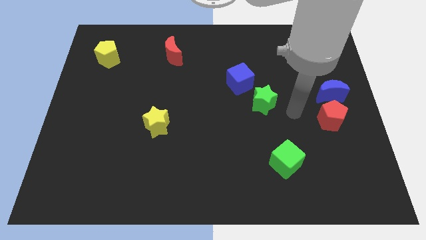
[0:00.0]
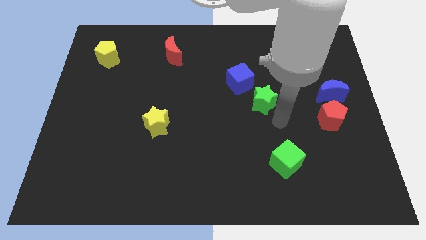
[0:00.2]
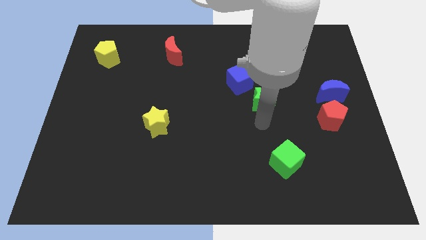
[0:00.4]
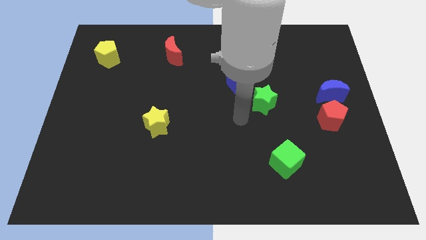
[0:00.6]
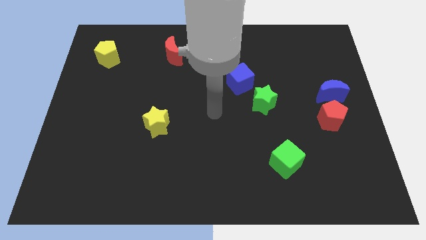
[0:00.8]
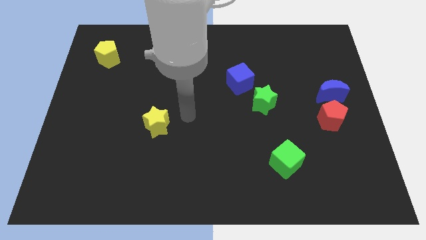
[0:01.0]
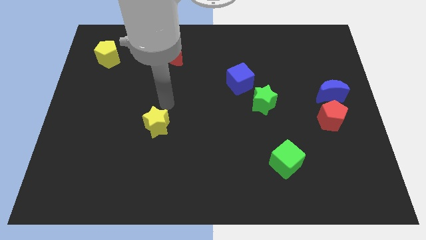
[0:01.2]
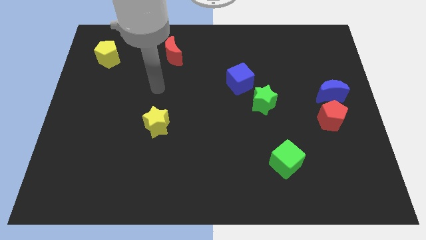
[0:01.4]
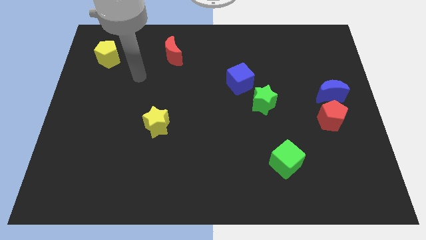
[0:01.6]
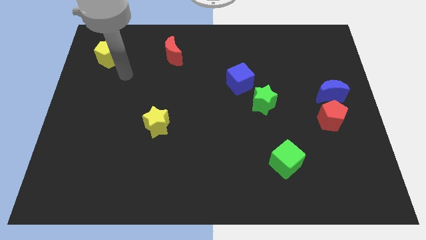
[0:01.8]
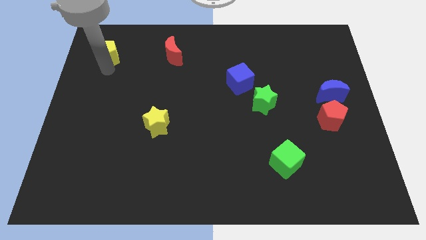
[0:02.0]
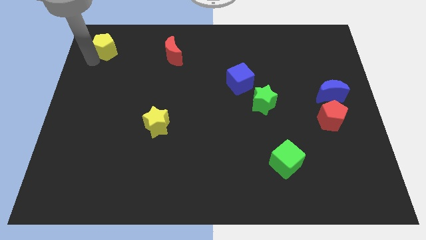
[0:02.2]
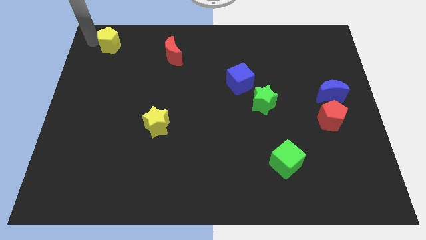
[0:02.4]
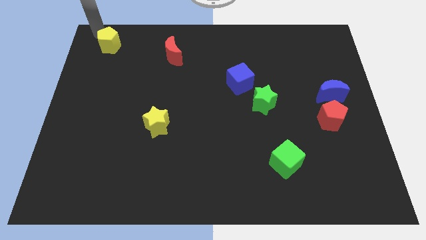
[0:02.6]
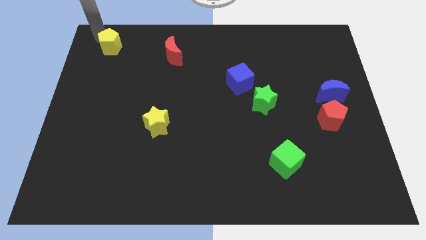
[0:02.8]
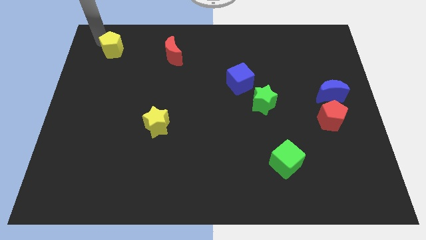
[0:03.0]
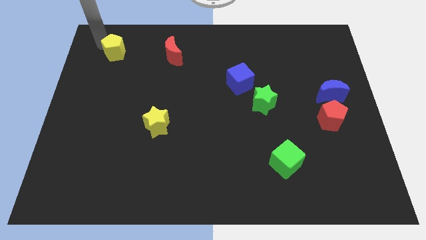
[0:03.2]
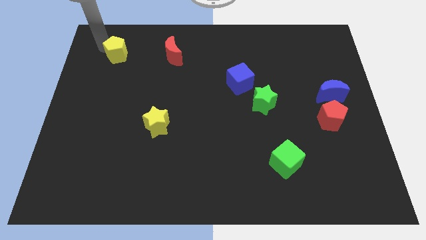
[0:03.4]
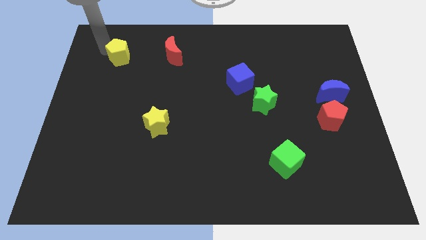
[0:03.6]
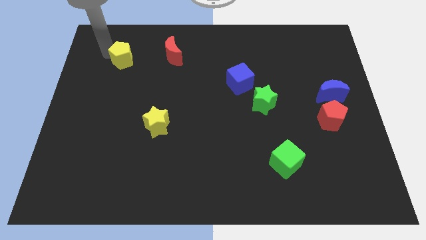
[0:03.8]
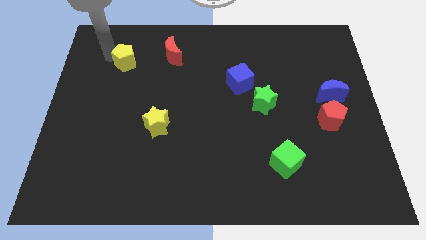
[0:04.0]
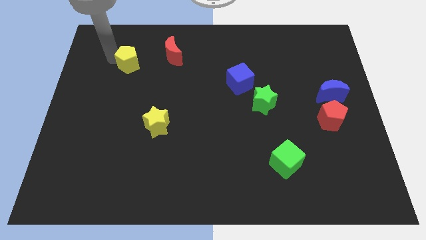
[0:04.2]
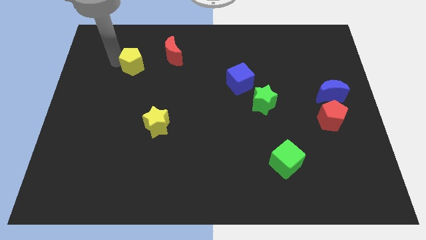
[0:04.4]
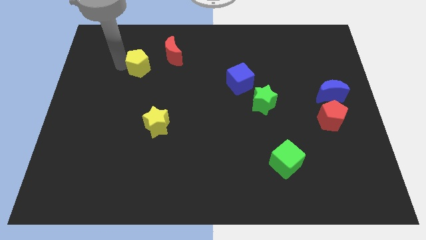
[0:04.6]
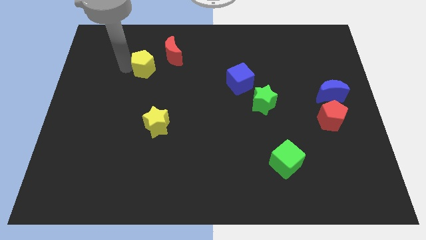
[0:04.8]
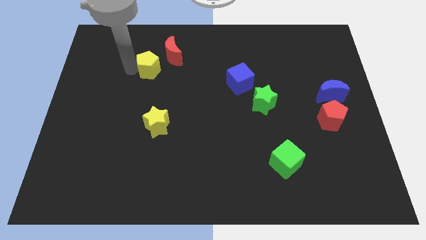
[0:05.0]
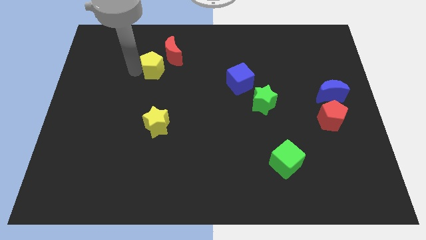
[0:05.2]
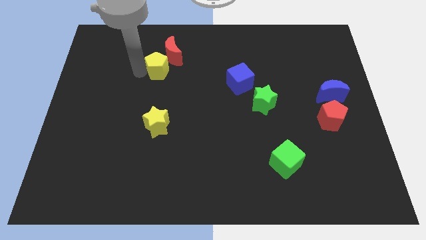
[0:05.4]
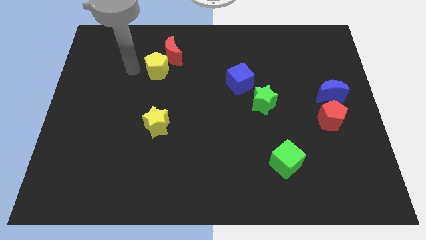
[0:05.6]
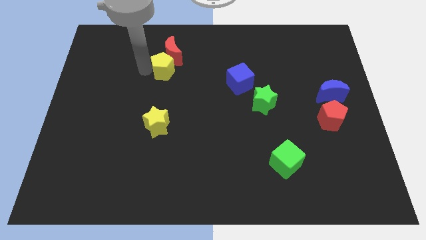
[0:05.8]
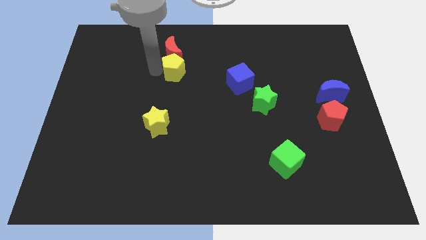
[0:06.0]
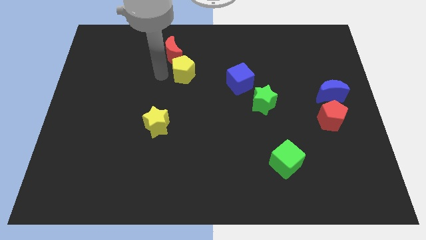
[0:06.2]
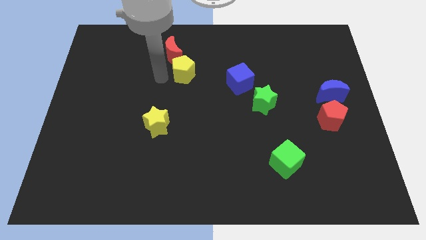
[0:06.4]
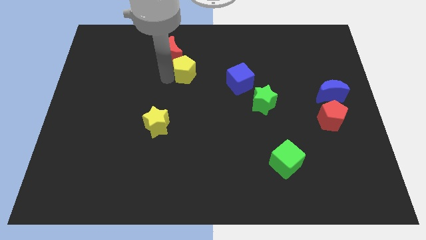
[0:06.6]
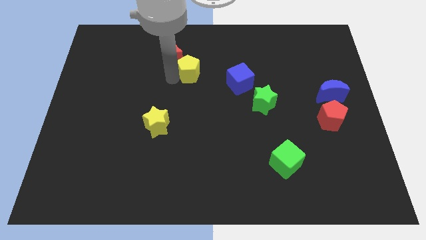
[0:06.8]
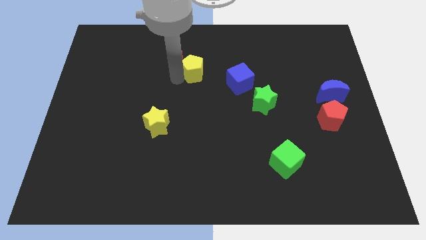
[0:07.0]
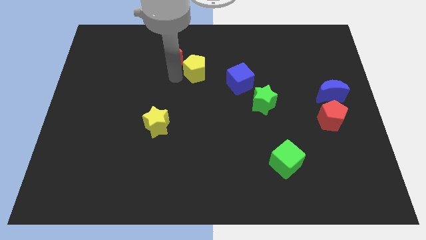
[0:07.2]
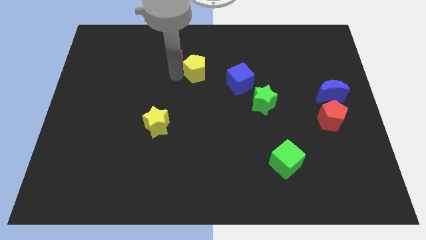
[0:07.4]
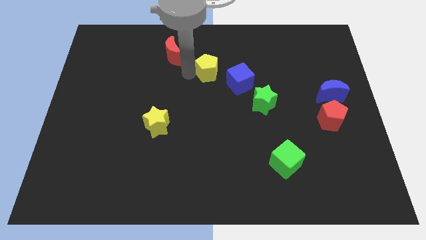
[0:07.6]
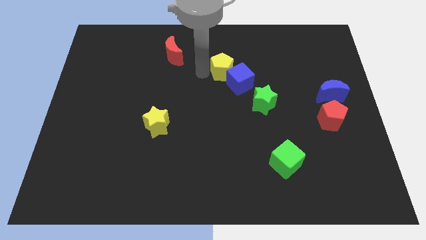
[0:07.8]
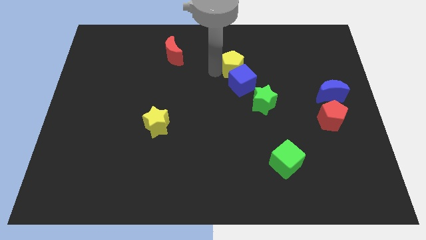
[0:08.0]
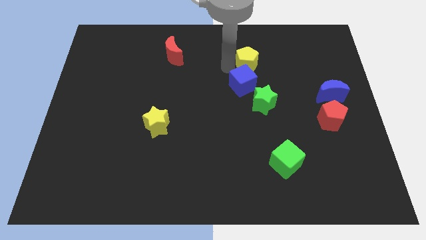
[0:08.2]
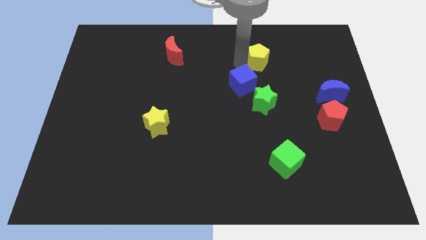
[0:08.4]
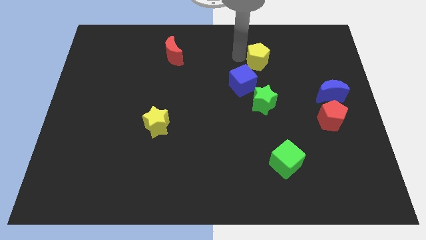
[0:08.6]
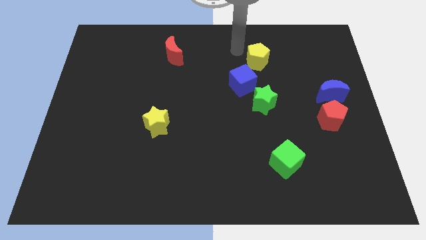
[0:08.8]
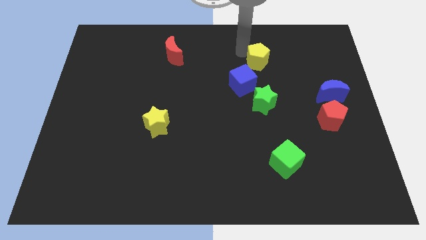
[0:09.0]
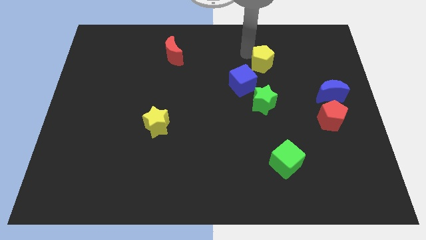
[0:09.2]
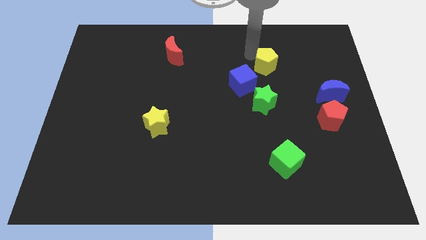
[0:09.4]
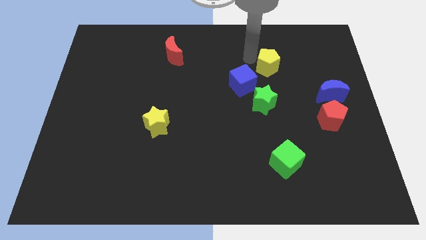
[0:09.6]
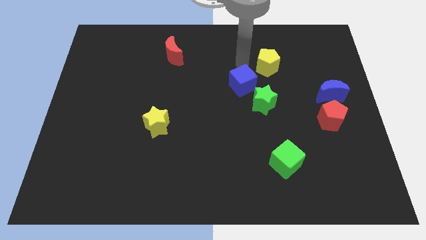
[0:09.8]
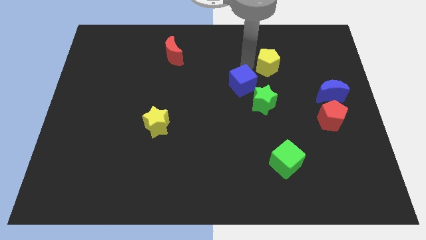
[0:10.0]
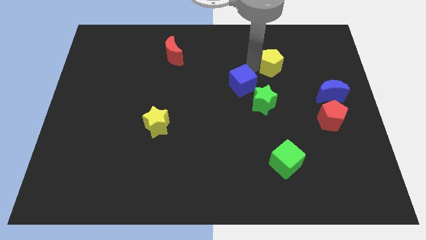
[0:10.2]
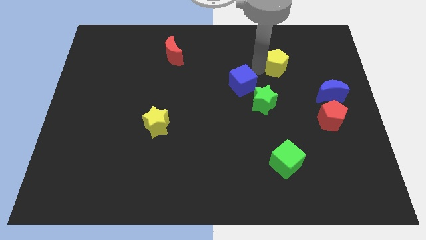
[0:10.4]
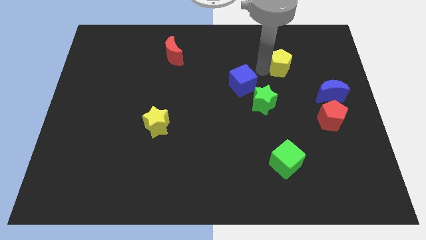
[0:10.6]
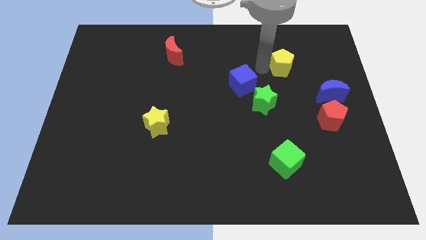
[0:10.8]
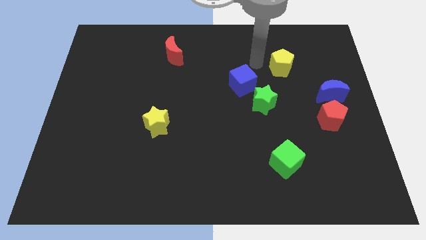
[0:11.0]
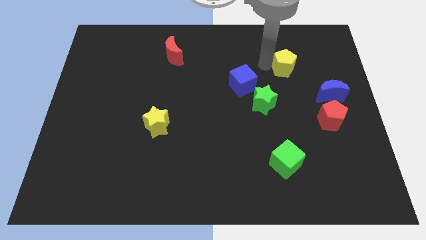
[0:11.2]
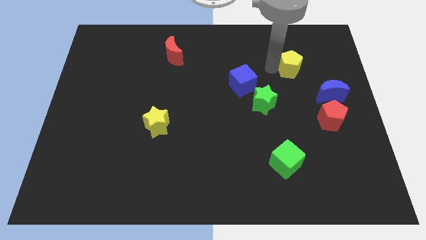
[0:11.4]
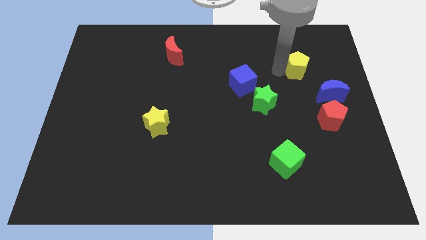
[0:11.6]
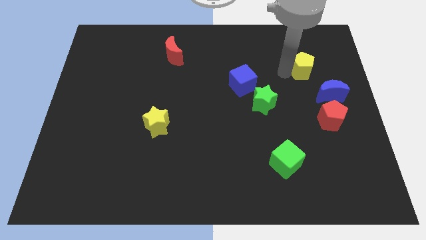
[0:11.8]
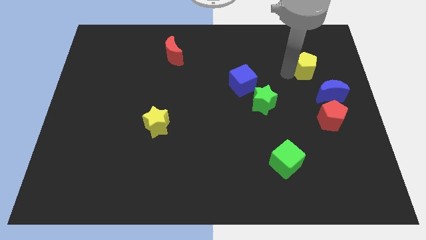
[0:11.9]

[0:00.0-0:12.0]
put the yellow pentagon above the blue moon

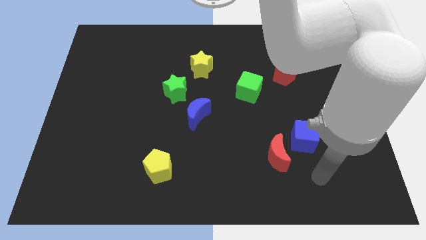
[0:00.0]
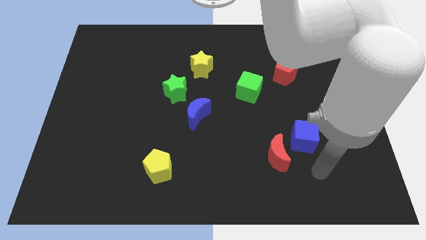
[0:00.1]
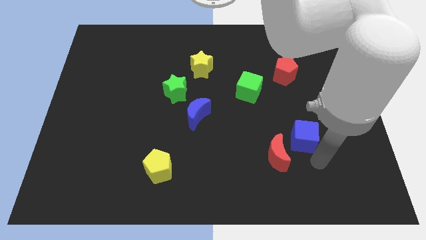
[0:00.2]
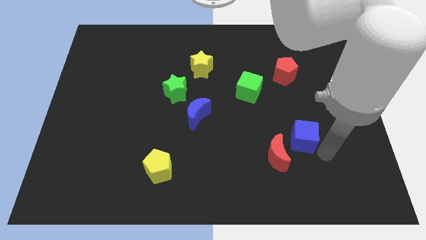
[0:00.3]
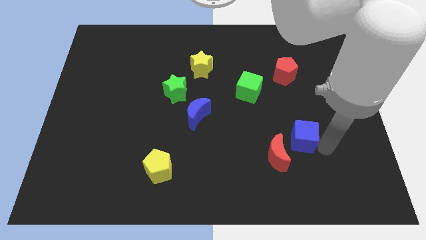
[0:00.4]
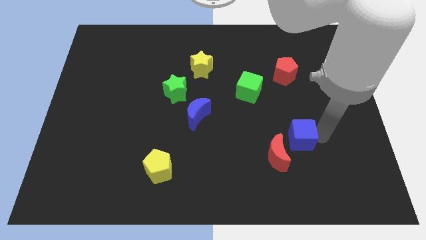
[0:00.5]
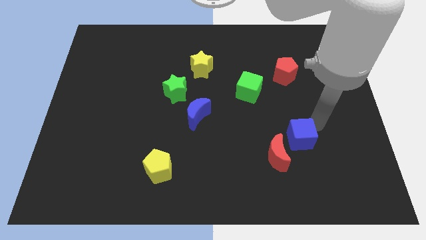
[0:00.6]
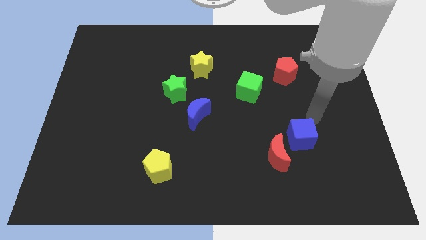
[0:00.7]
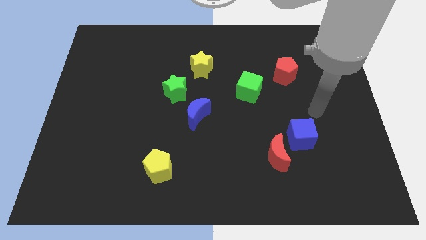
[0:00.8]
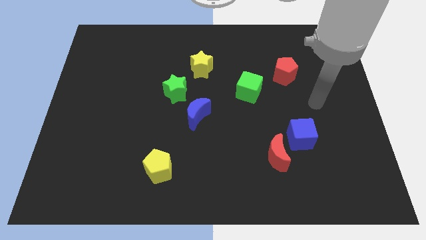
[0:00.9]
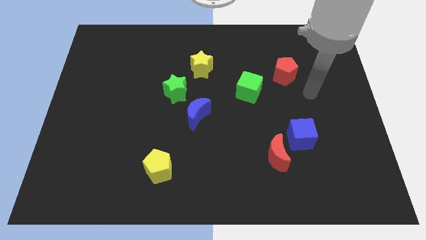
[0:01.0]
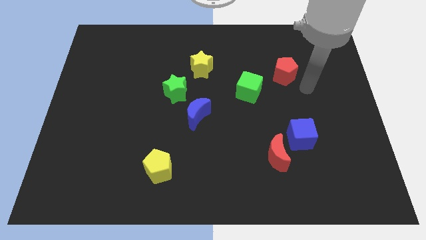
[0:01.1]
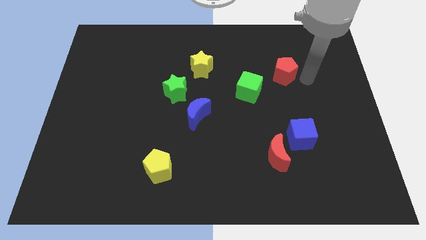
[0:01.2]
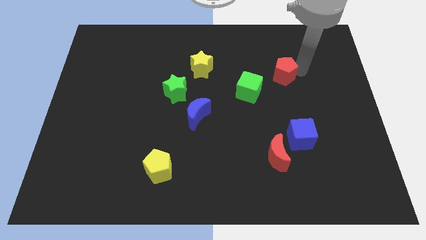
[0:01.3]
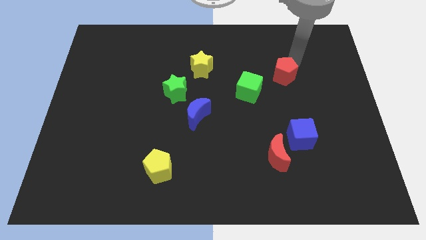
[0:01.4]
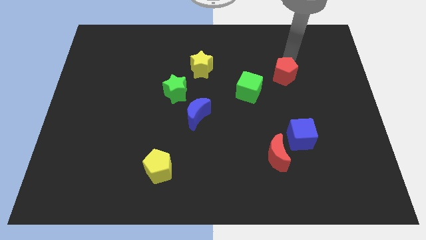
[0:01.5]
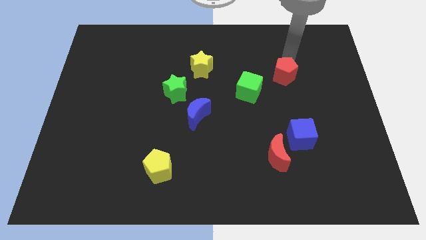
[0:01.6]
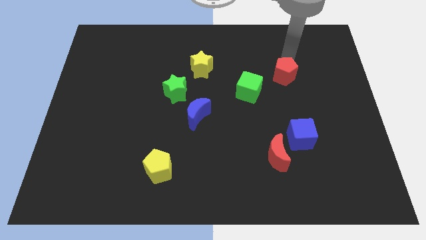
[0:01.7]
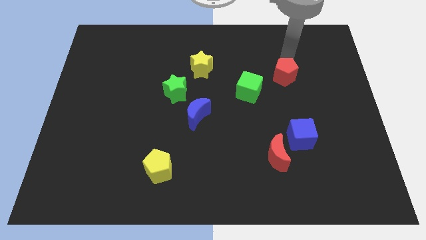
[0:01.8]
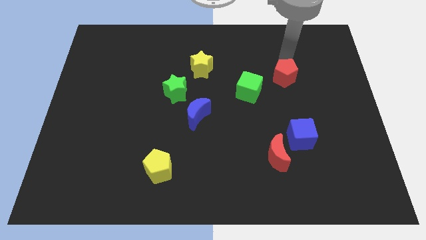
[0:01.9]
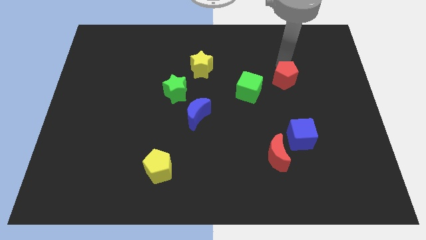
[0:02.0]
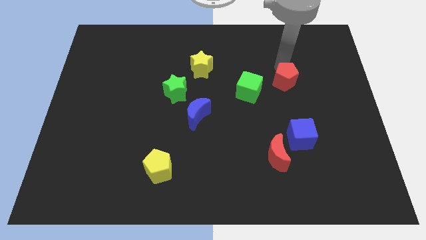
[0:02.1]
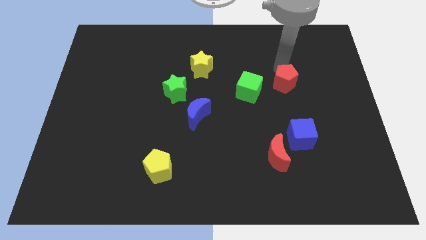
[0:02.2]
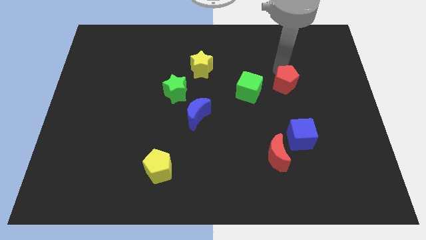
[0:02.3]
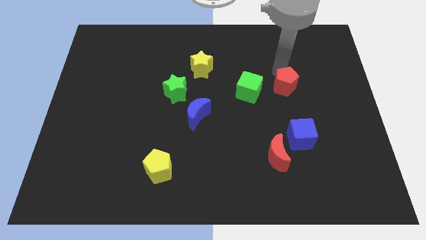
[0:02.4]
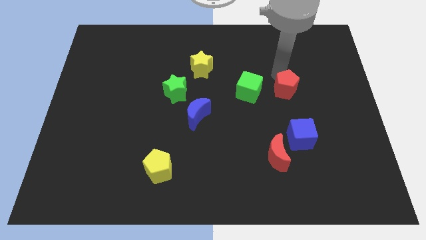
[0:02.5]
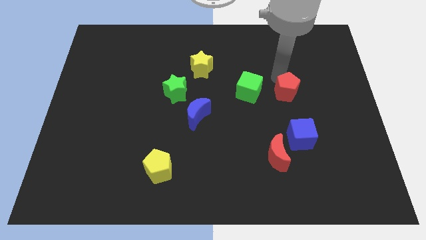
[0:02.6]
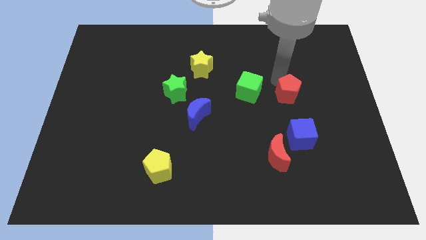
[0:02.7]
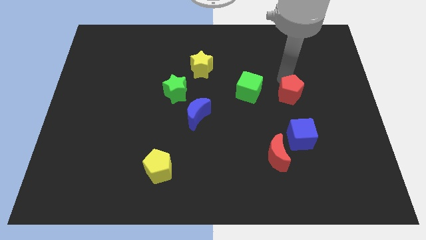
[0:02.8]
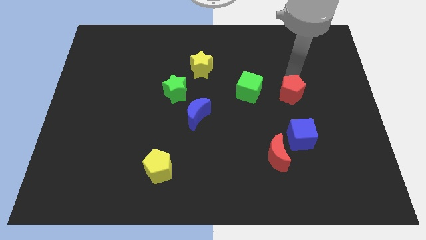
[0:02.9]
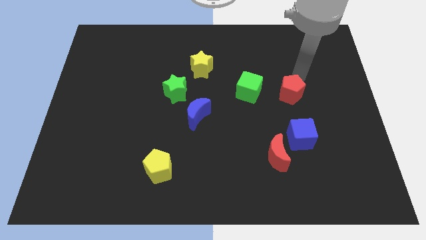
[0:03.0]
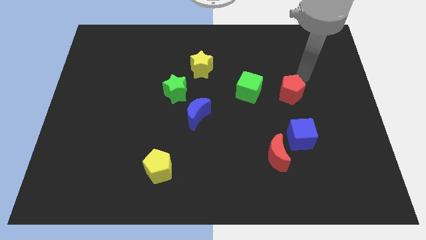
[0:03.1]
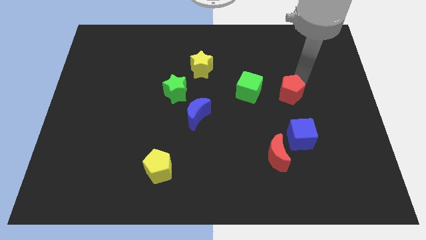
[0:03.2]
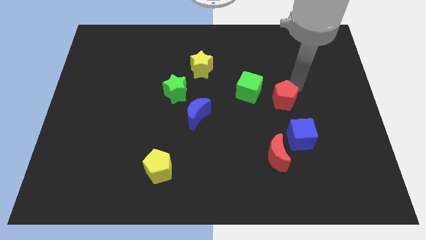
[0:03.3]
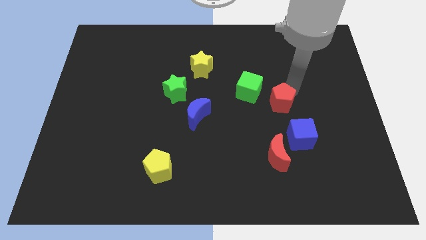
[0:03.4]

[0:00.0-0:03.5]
push the red pentagon to the top of the red moon
